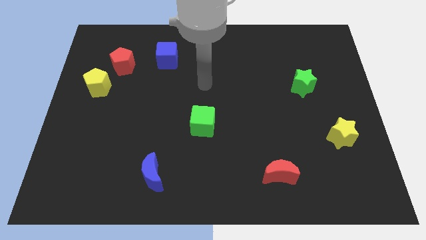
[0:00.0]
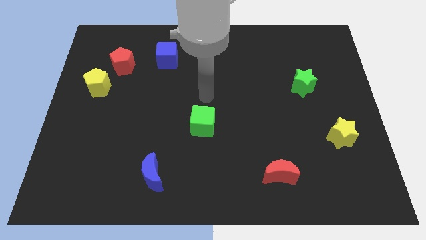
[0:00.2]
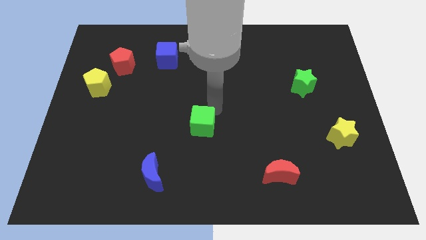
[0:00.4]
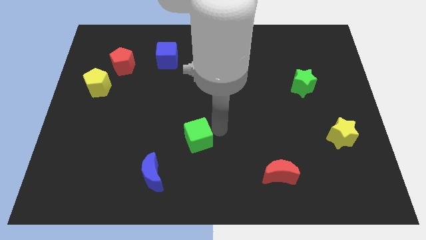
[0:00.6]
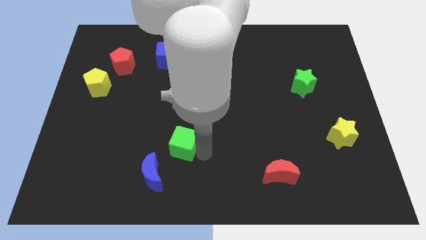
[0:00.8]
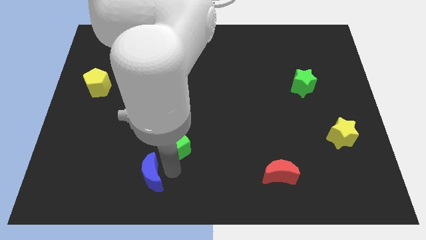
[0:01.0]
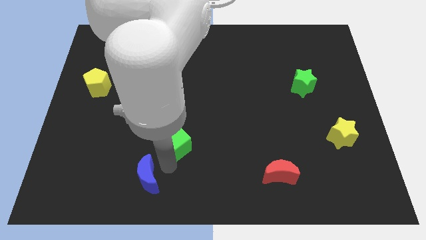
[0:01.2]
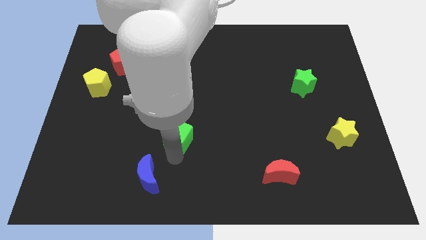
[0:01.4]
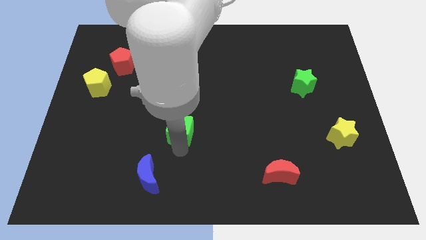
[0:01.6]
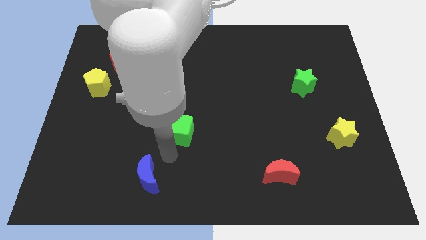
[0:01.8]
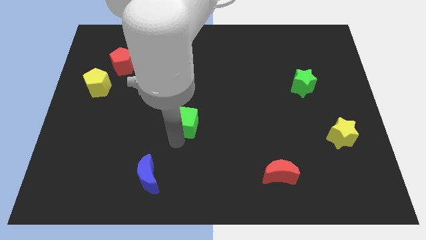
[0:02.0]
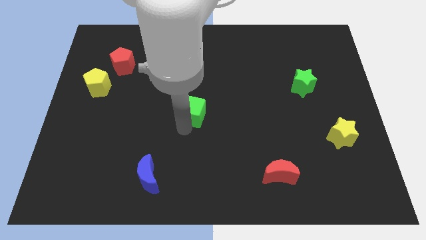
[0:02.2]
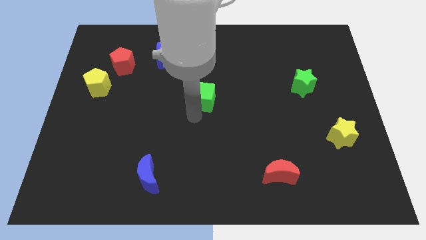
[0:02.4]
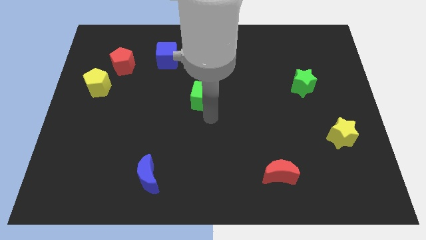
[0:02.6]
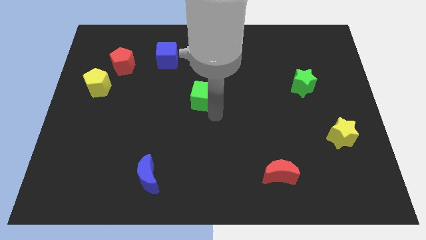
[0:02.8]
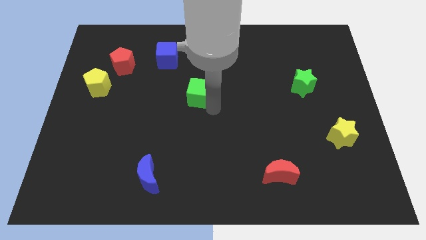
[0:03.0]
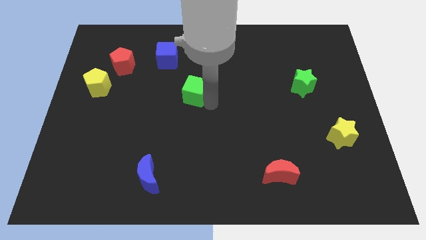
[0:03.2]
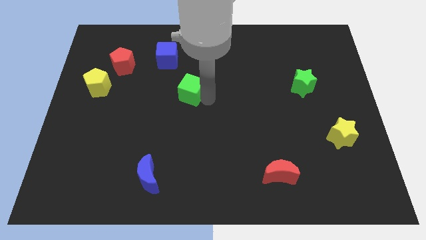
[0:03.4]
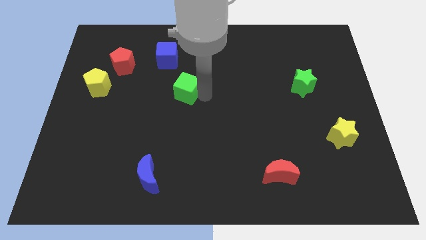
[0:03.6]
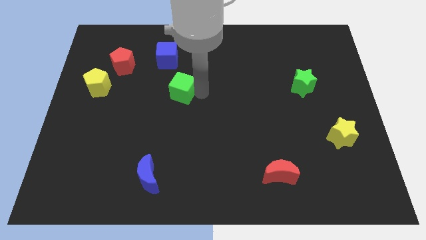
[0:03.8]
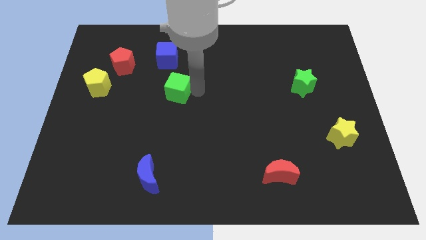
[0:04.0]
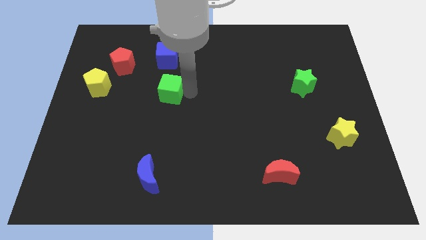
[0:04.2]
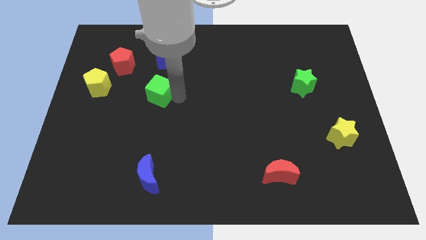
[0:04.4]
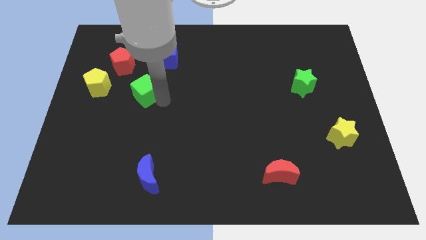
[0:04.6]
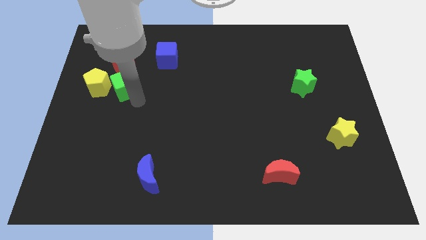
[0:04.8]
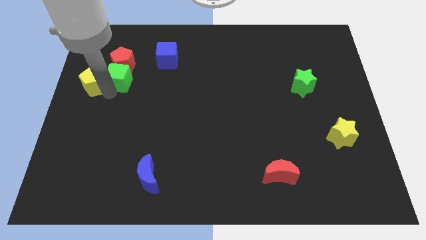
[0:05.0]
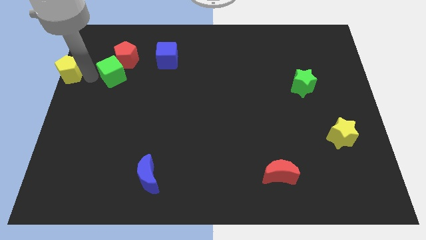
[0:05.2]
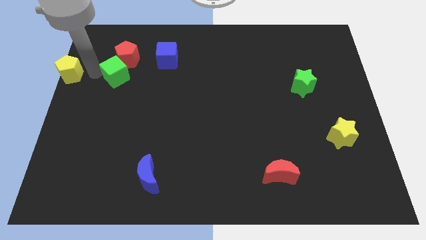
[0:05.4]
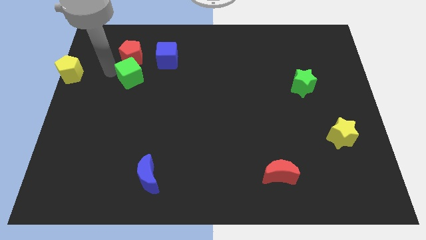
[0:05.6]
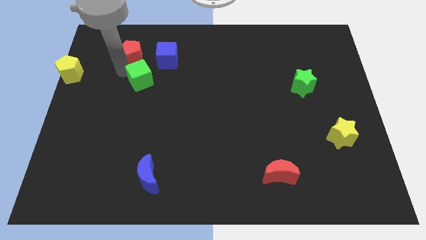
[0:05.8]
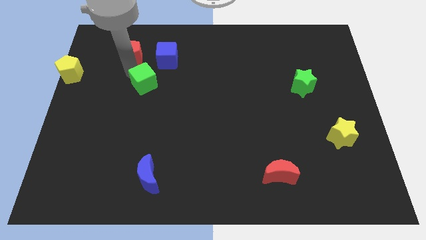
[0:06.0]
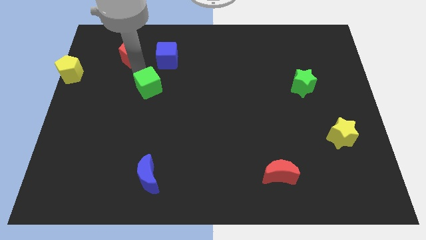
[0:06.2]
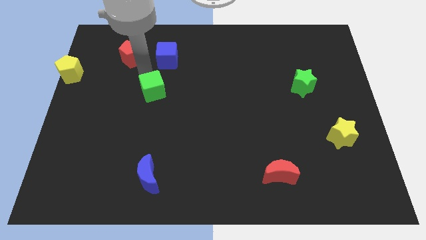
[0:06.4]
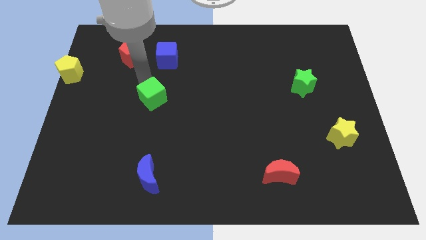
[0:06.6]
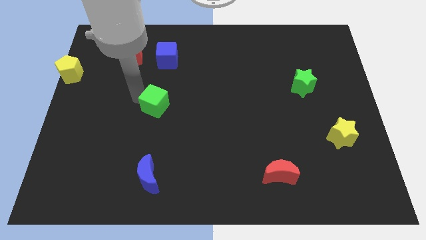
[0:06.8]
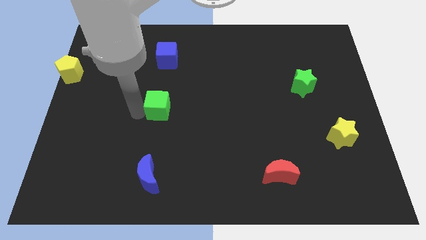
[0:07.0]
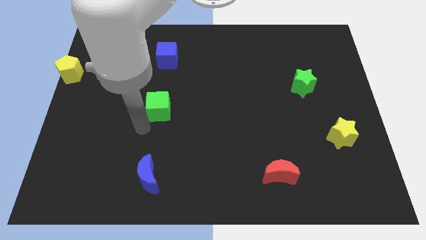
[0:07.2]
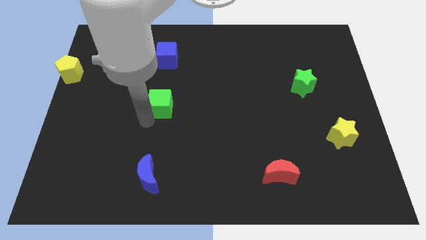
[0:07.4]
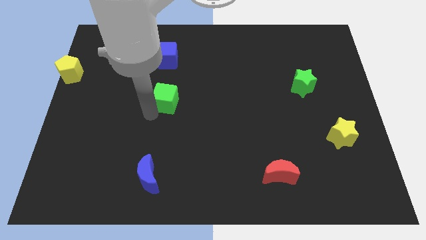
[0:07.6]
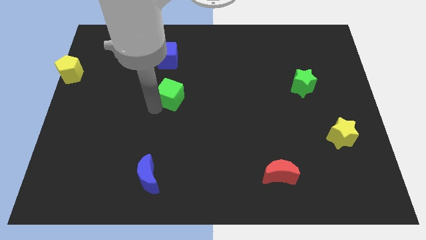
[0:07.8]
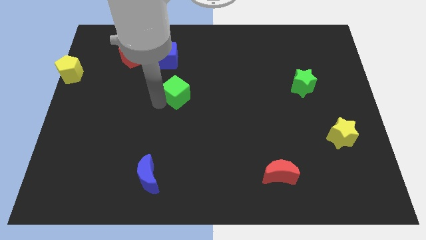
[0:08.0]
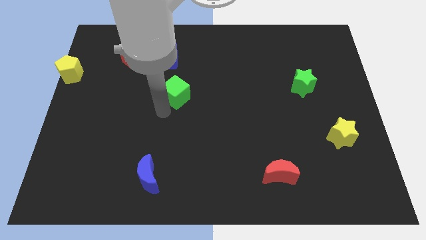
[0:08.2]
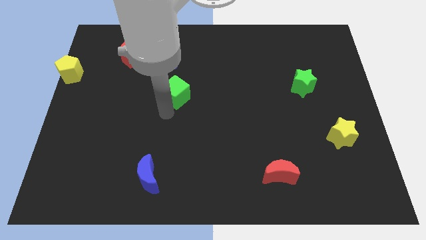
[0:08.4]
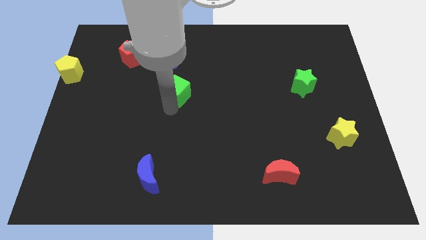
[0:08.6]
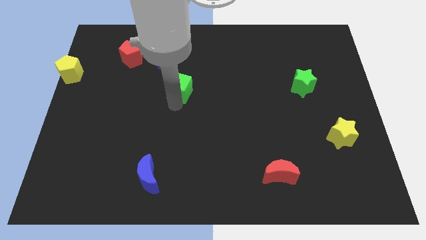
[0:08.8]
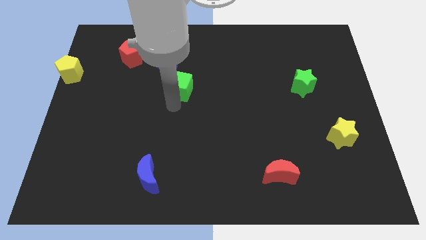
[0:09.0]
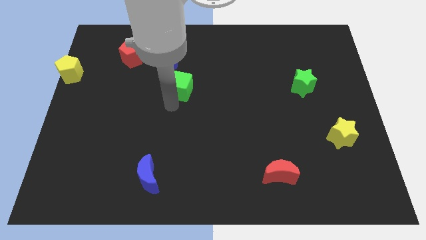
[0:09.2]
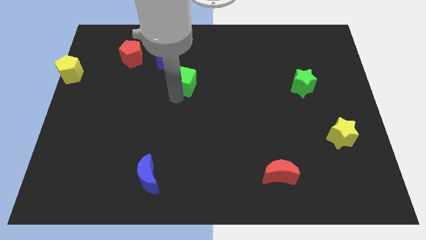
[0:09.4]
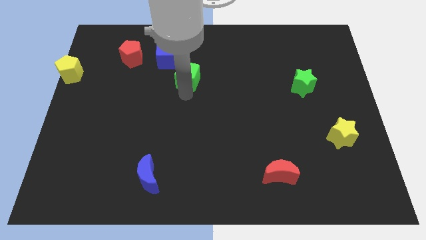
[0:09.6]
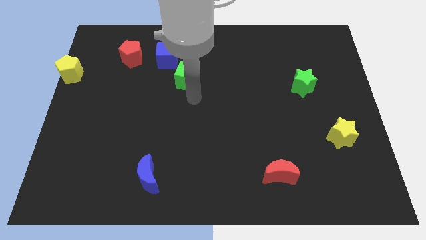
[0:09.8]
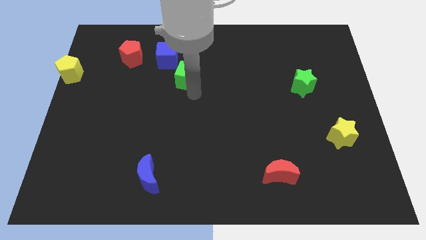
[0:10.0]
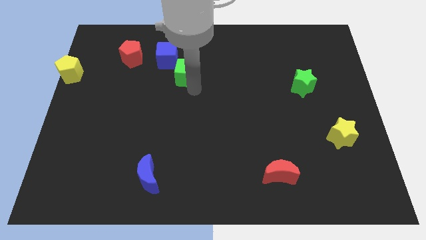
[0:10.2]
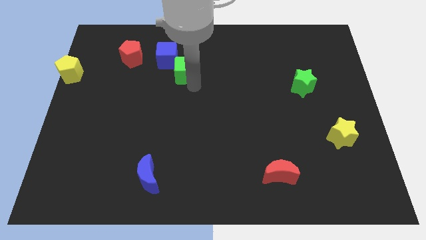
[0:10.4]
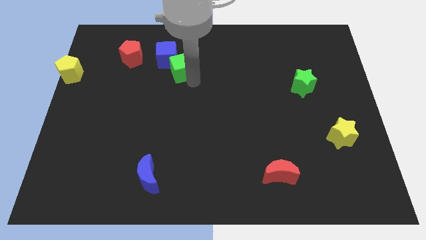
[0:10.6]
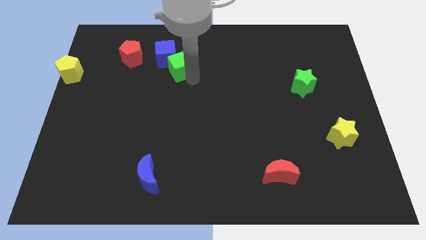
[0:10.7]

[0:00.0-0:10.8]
move the green cube just right of the red pentagon

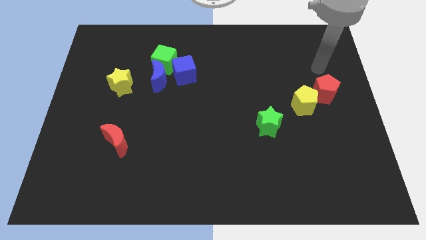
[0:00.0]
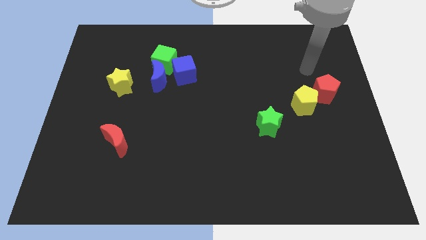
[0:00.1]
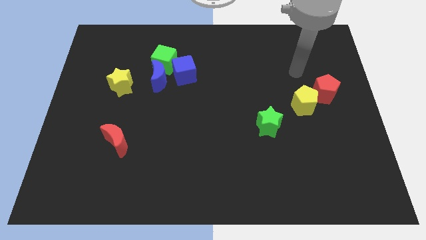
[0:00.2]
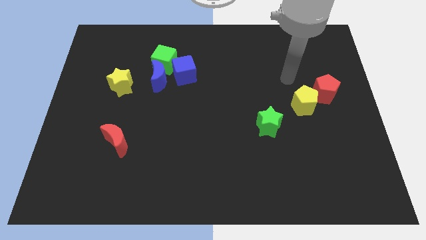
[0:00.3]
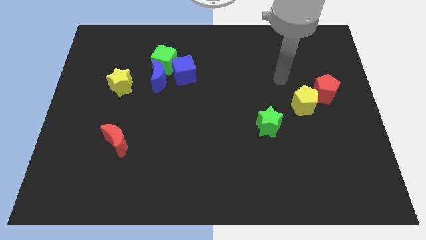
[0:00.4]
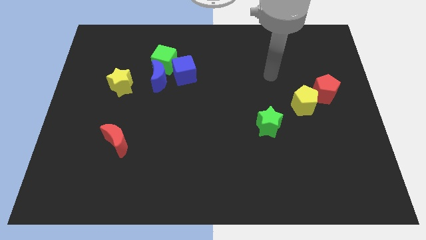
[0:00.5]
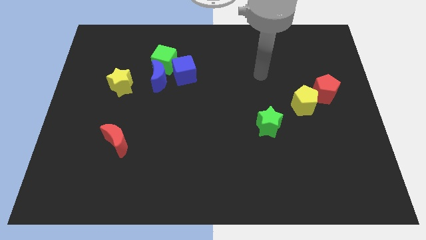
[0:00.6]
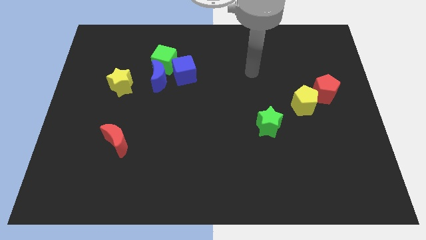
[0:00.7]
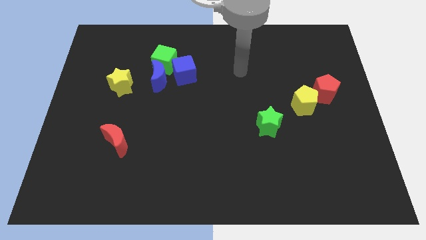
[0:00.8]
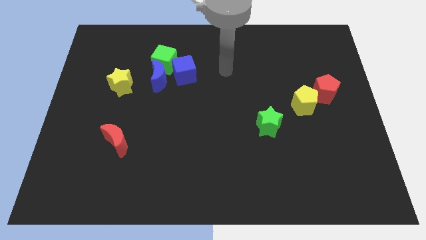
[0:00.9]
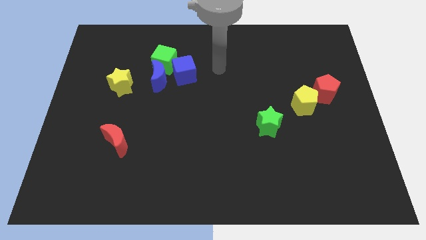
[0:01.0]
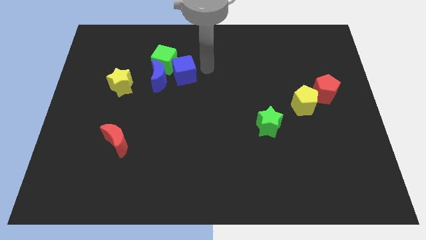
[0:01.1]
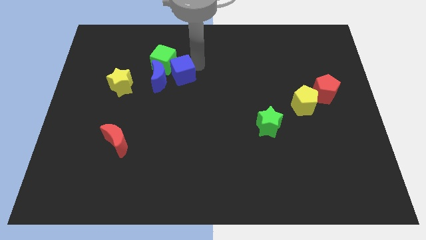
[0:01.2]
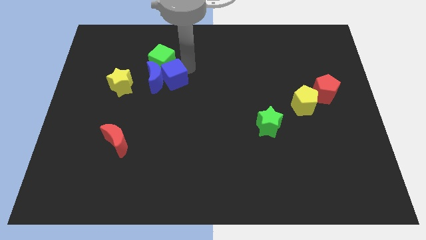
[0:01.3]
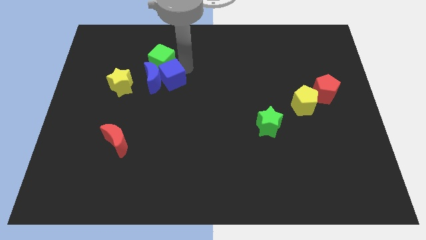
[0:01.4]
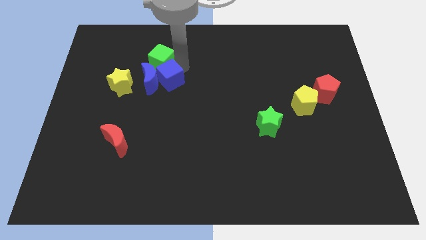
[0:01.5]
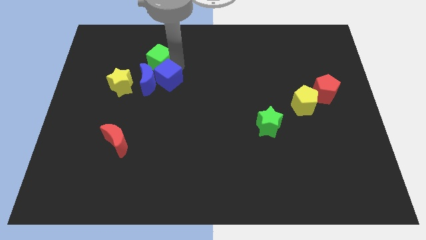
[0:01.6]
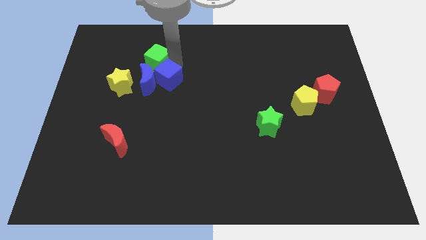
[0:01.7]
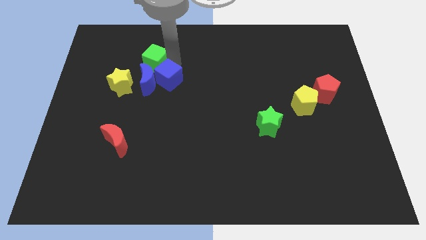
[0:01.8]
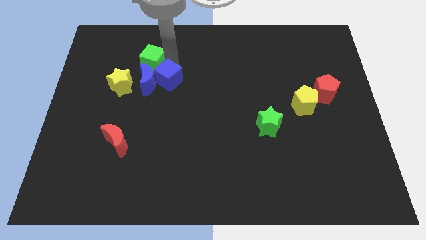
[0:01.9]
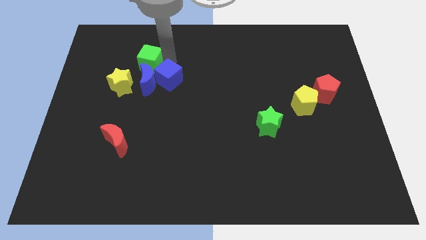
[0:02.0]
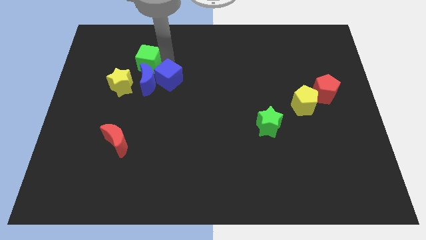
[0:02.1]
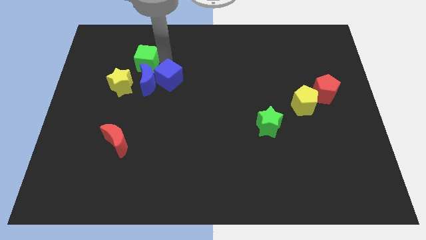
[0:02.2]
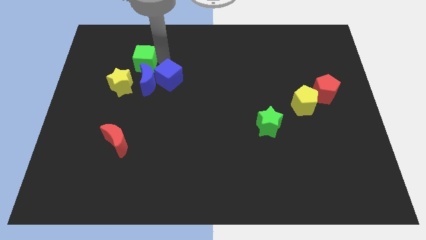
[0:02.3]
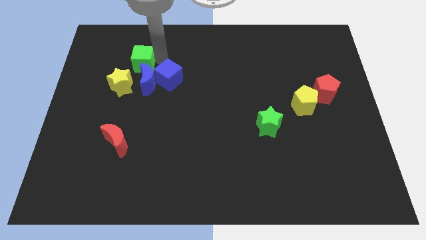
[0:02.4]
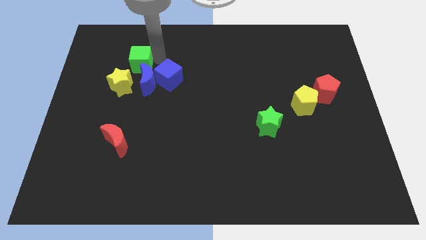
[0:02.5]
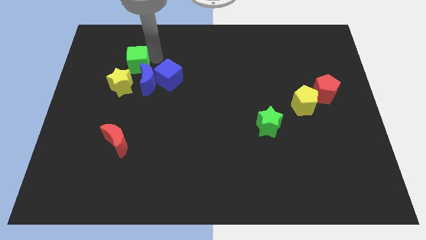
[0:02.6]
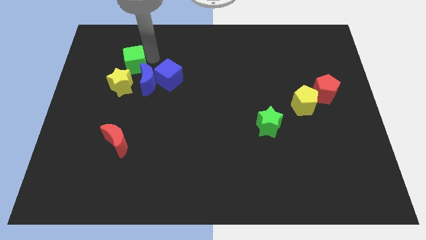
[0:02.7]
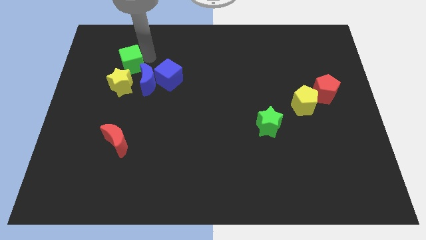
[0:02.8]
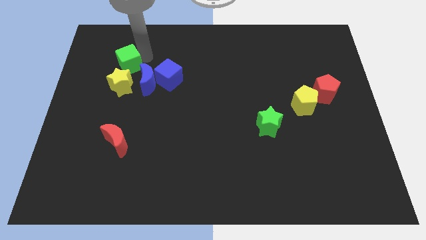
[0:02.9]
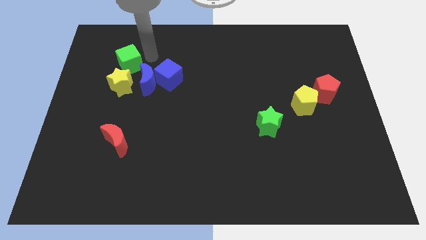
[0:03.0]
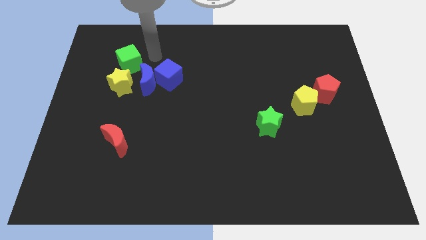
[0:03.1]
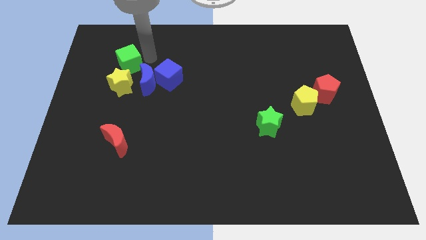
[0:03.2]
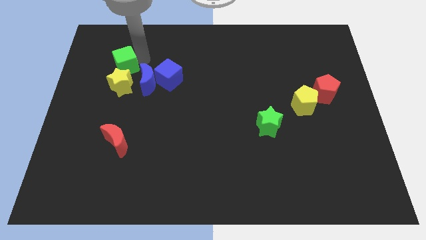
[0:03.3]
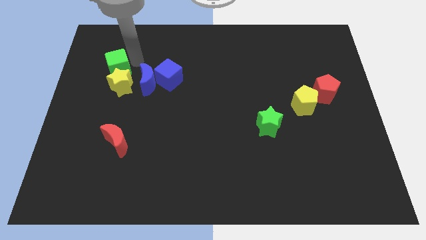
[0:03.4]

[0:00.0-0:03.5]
put the green cube to the top left side of the yellow star
